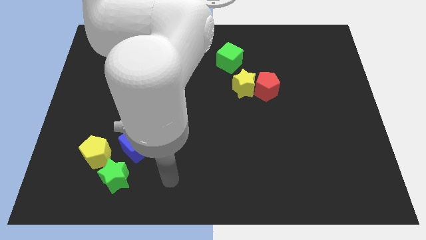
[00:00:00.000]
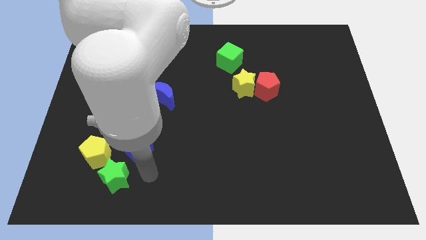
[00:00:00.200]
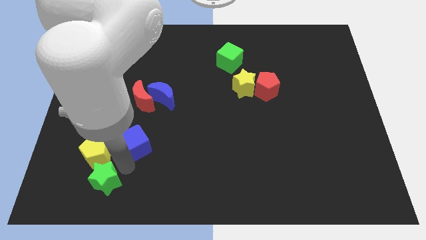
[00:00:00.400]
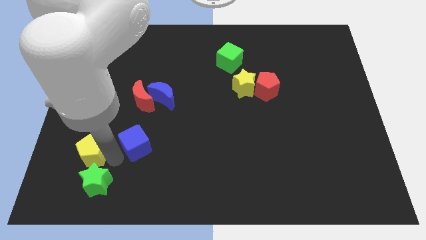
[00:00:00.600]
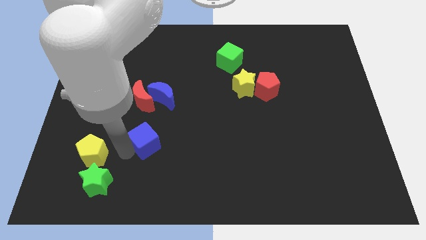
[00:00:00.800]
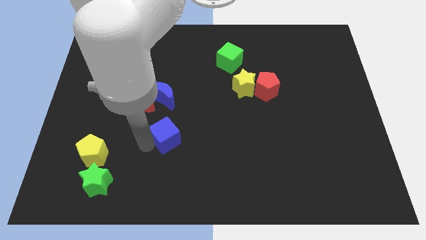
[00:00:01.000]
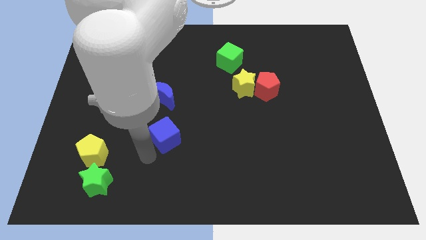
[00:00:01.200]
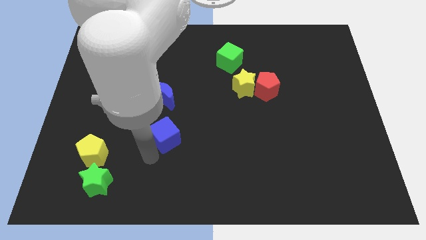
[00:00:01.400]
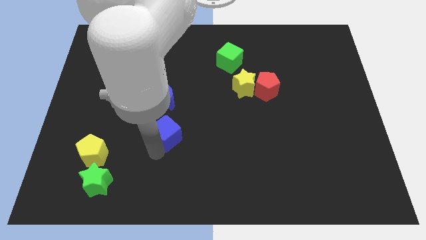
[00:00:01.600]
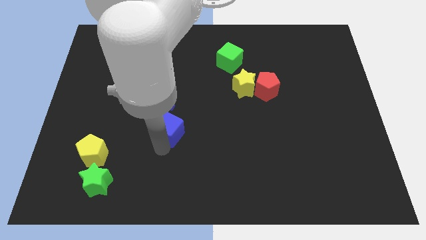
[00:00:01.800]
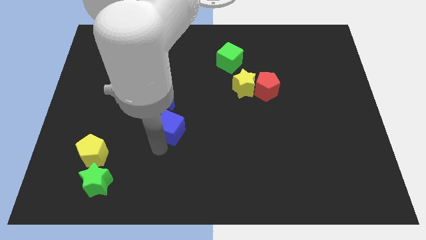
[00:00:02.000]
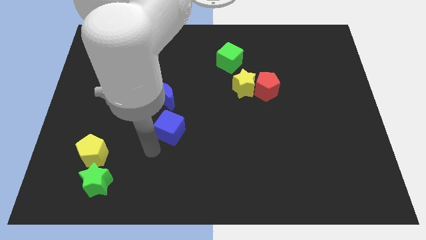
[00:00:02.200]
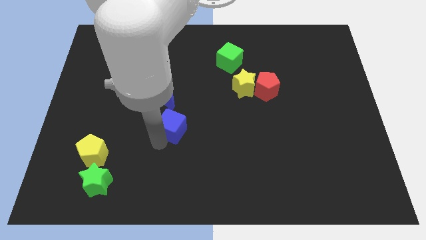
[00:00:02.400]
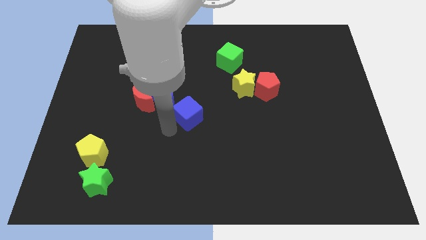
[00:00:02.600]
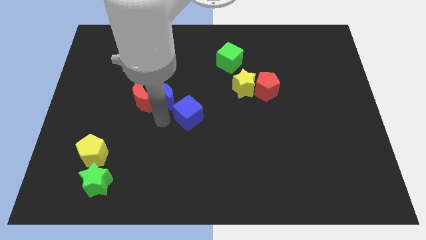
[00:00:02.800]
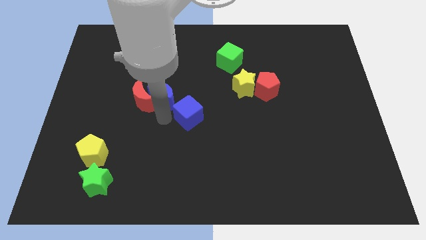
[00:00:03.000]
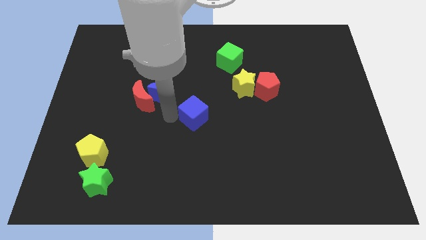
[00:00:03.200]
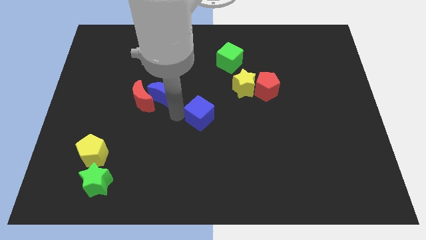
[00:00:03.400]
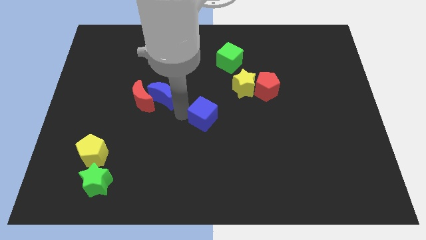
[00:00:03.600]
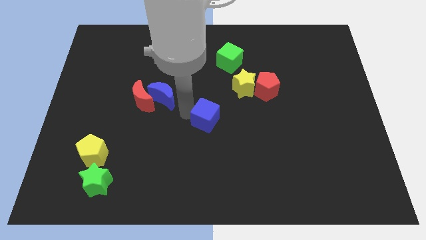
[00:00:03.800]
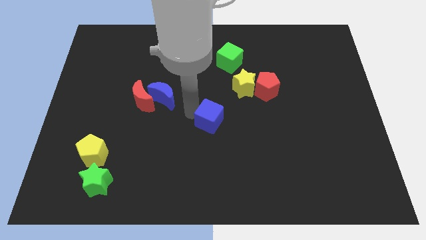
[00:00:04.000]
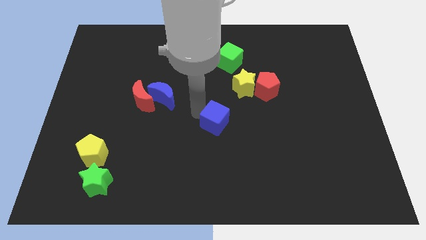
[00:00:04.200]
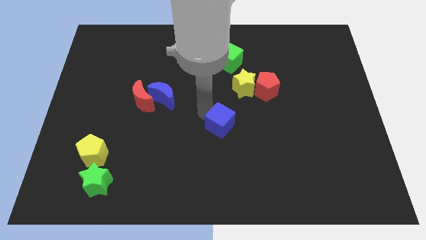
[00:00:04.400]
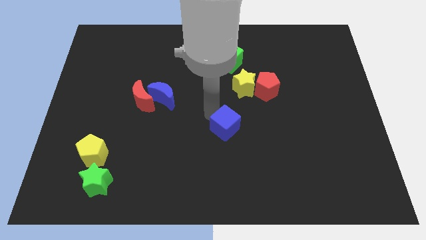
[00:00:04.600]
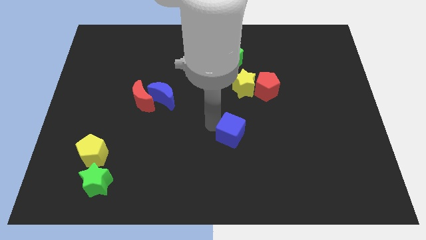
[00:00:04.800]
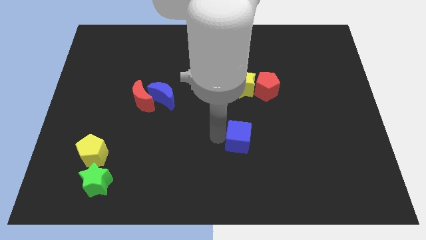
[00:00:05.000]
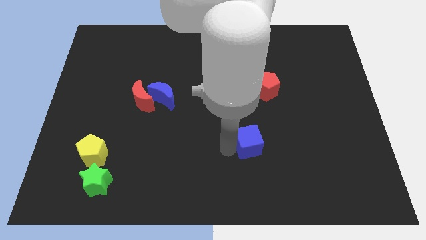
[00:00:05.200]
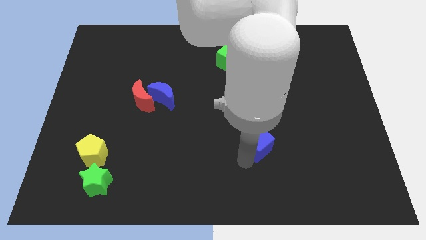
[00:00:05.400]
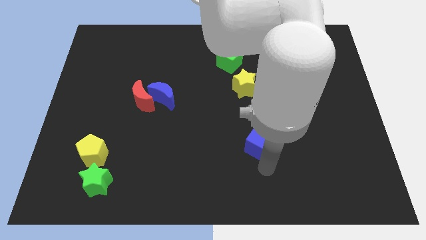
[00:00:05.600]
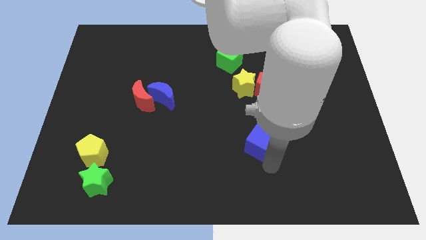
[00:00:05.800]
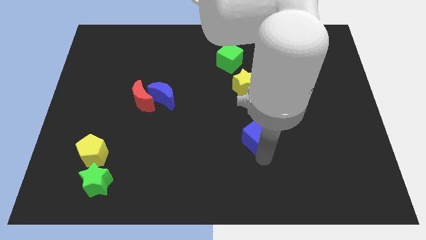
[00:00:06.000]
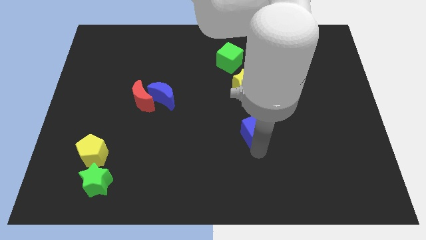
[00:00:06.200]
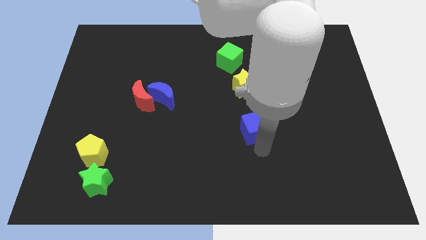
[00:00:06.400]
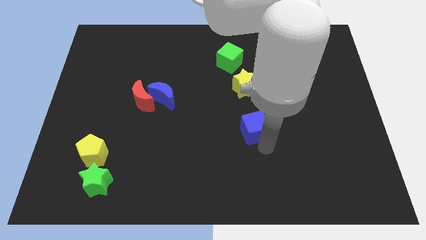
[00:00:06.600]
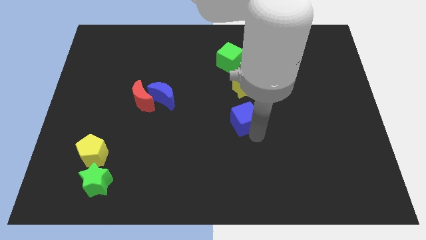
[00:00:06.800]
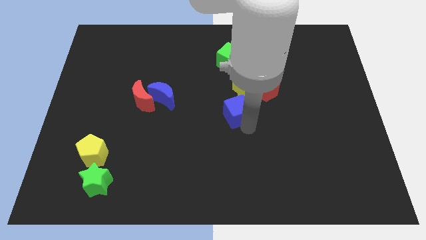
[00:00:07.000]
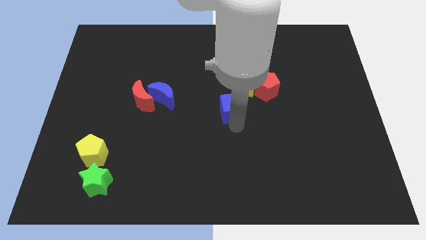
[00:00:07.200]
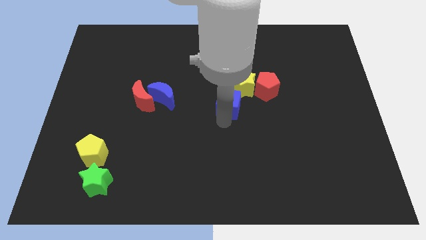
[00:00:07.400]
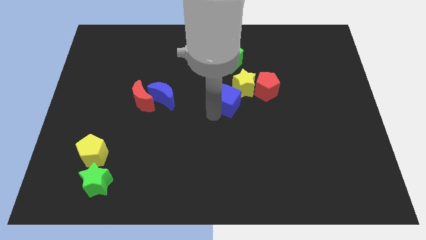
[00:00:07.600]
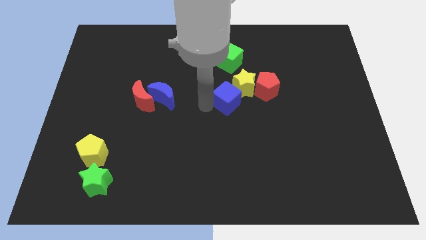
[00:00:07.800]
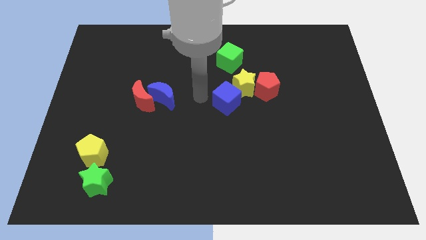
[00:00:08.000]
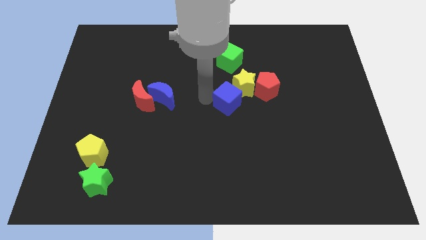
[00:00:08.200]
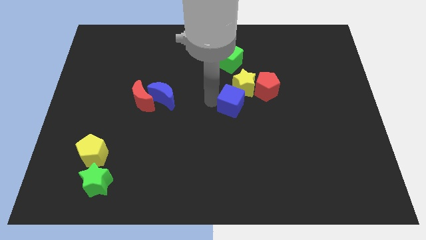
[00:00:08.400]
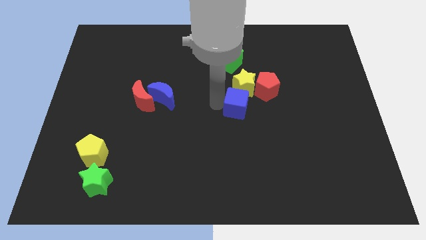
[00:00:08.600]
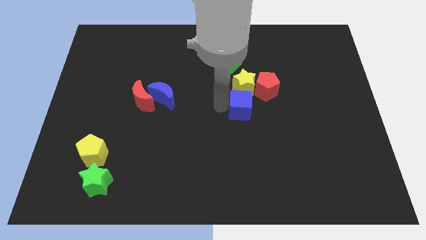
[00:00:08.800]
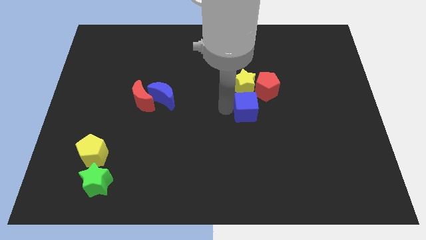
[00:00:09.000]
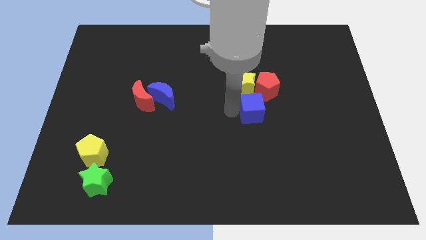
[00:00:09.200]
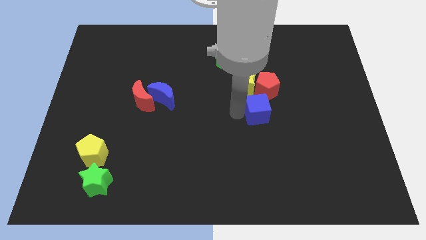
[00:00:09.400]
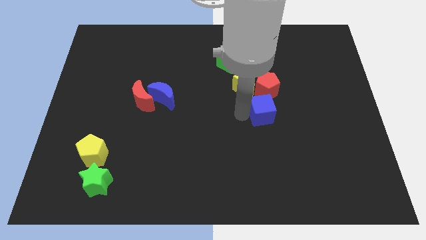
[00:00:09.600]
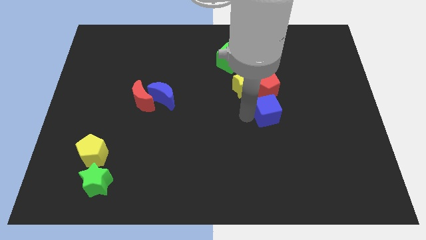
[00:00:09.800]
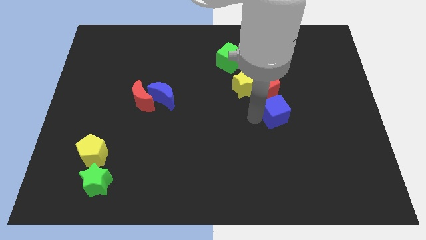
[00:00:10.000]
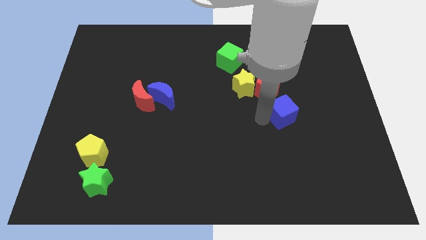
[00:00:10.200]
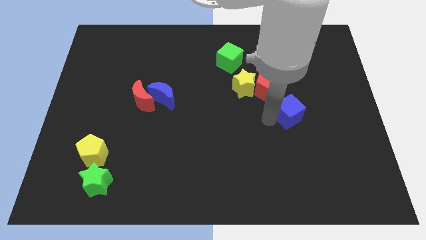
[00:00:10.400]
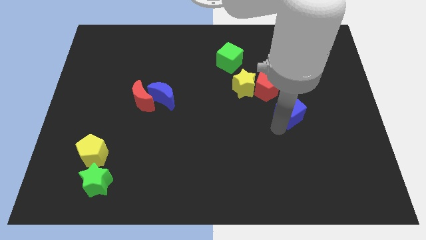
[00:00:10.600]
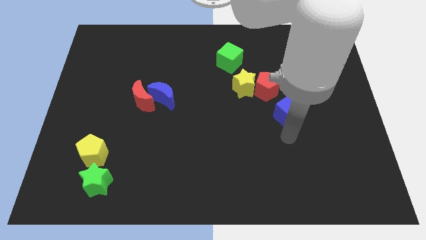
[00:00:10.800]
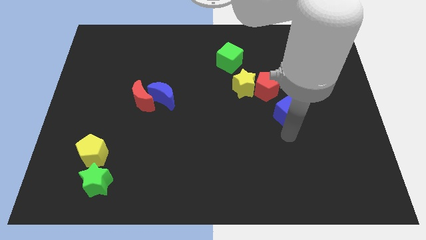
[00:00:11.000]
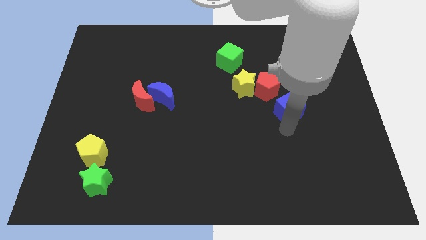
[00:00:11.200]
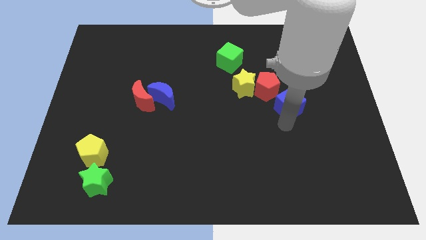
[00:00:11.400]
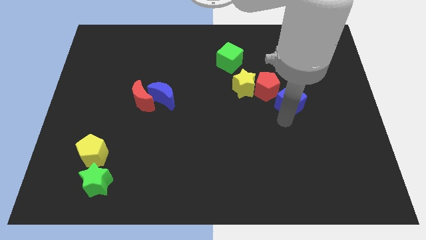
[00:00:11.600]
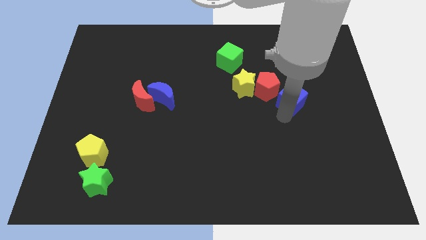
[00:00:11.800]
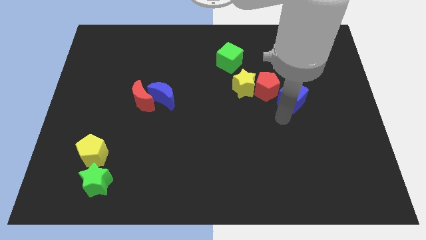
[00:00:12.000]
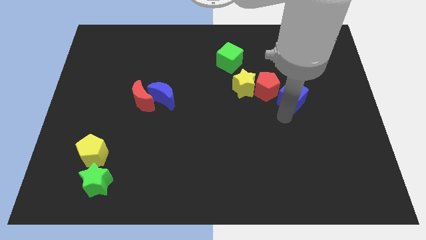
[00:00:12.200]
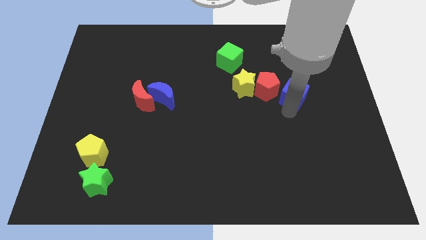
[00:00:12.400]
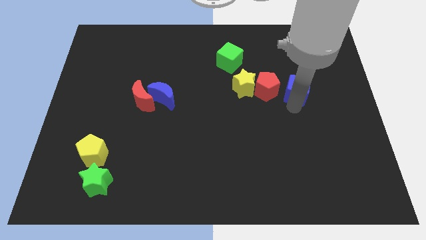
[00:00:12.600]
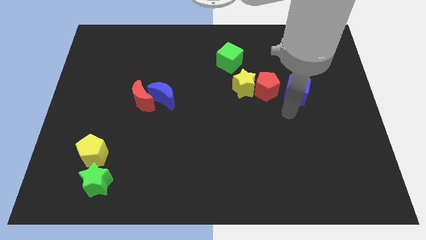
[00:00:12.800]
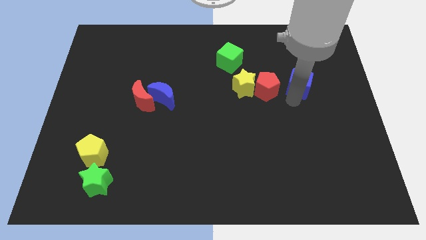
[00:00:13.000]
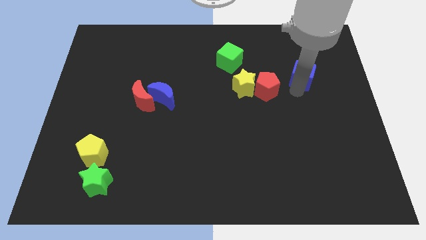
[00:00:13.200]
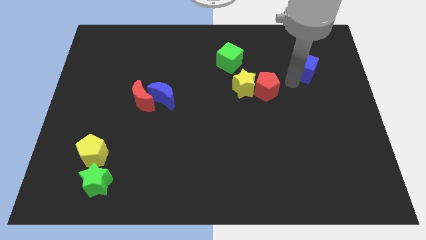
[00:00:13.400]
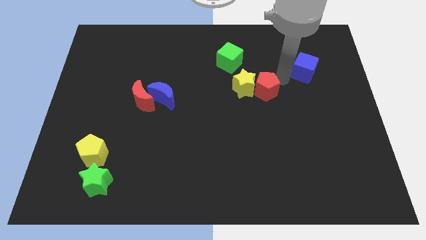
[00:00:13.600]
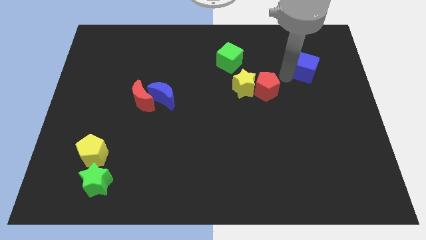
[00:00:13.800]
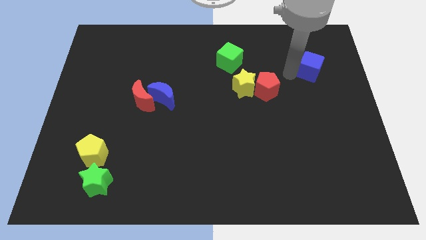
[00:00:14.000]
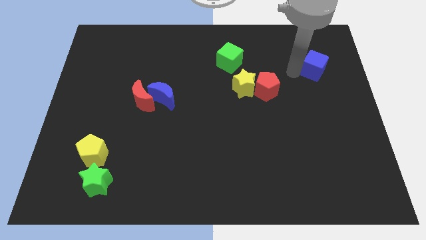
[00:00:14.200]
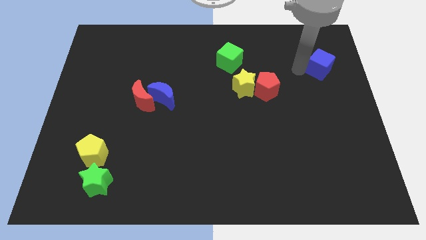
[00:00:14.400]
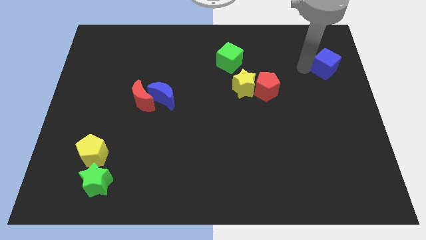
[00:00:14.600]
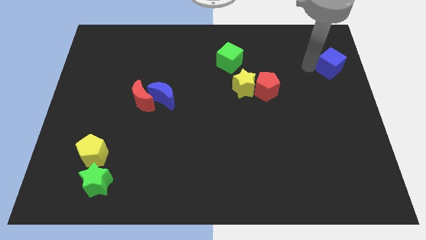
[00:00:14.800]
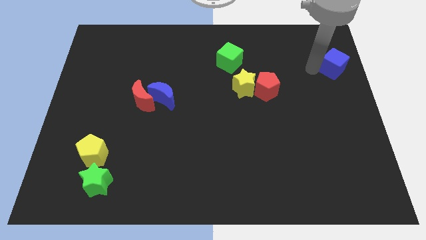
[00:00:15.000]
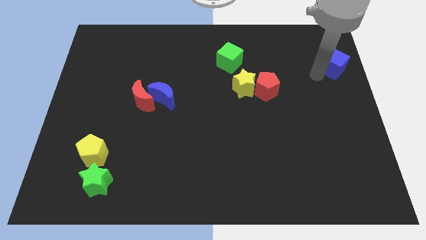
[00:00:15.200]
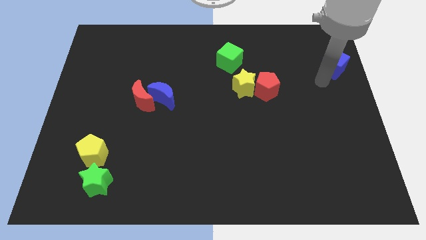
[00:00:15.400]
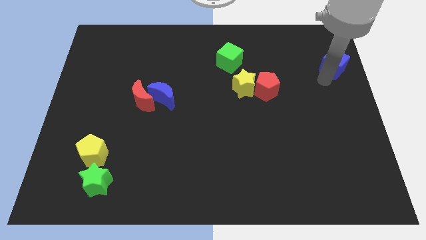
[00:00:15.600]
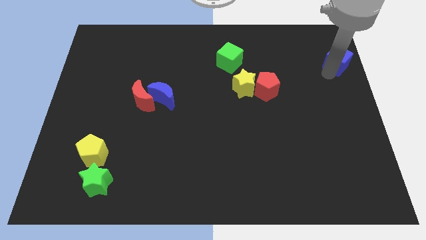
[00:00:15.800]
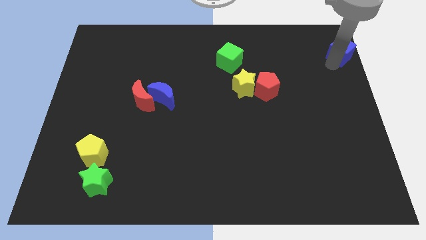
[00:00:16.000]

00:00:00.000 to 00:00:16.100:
slide the blue cube to the top right corner
